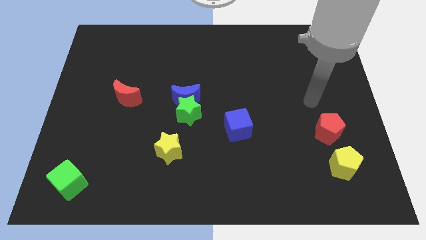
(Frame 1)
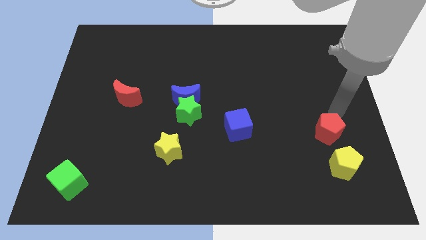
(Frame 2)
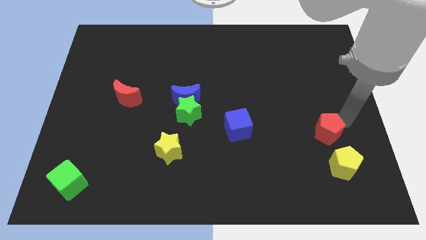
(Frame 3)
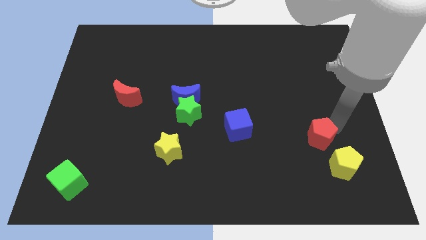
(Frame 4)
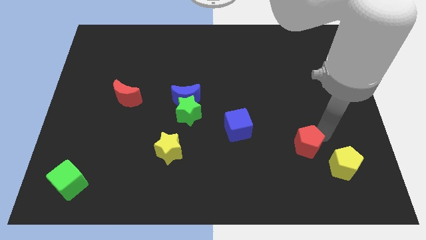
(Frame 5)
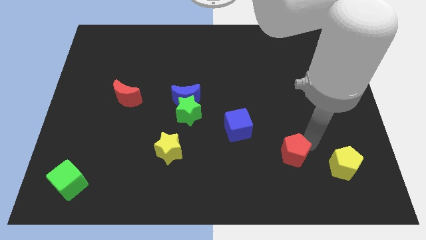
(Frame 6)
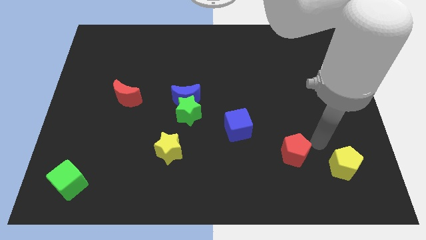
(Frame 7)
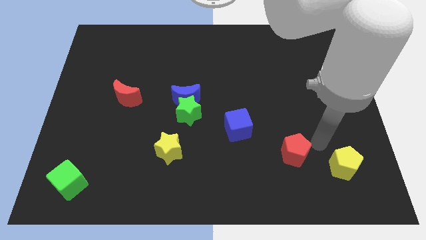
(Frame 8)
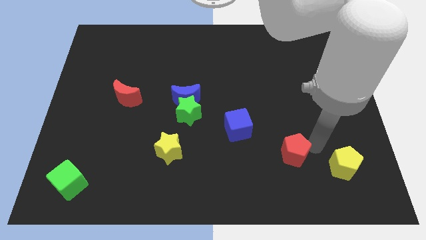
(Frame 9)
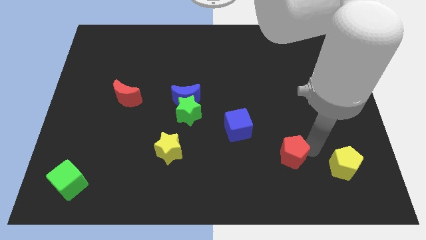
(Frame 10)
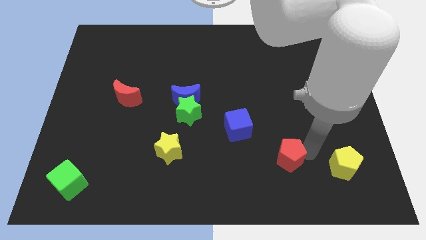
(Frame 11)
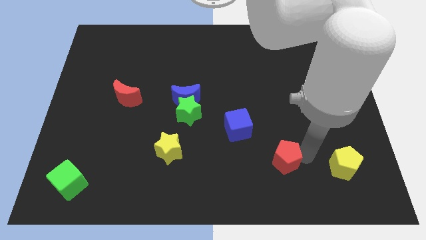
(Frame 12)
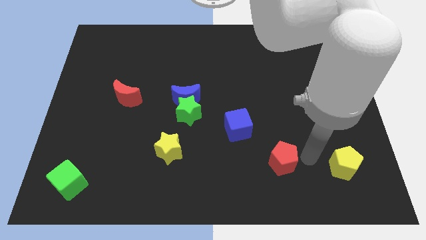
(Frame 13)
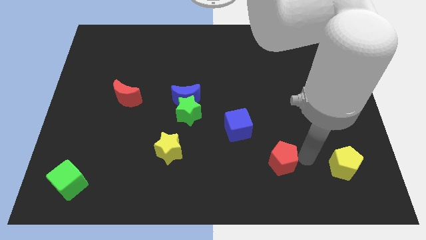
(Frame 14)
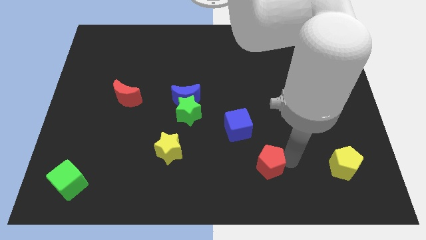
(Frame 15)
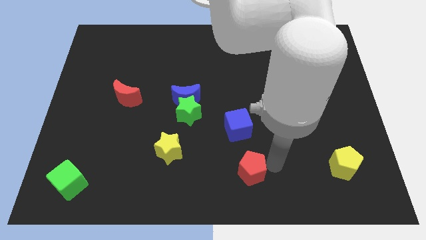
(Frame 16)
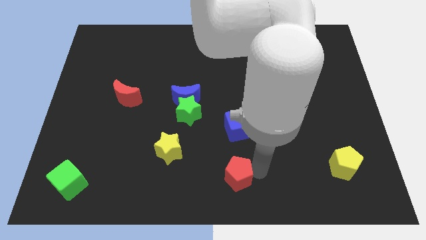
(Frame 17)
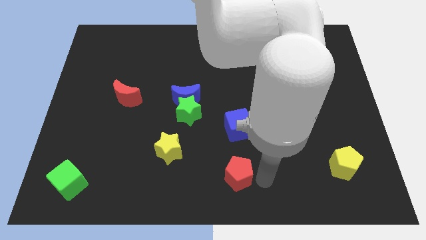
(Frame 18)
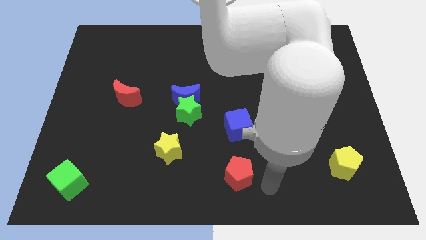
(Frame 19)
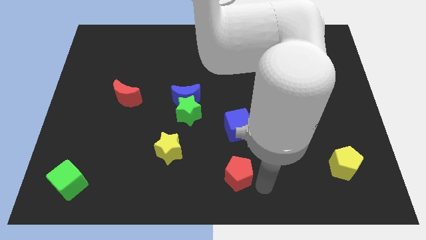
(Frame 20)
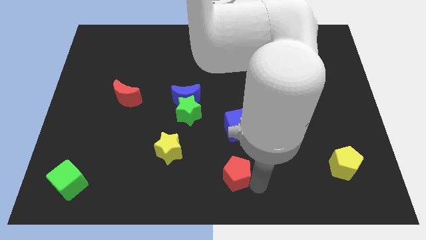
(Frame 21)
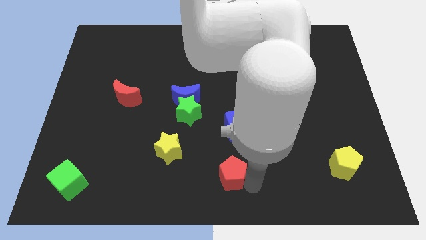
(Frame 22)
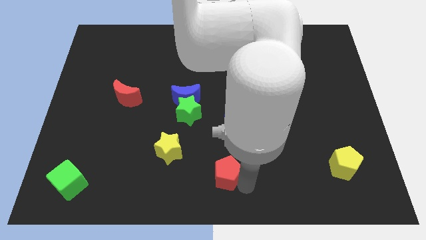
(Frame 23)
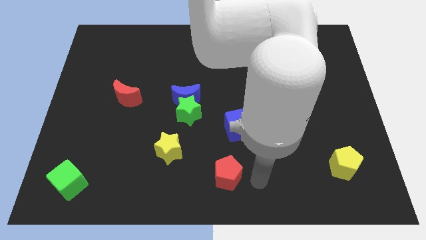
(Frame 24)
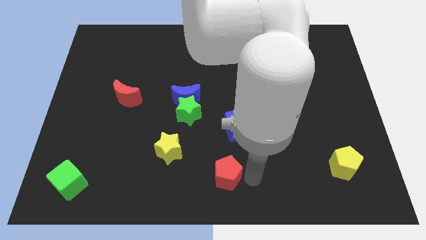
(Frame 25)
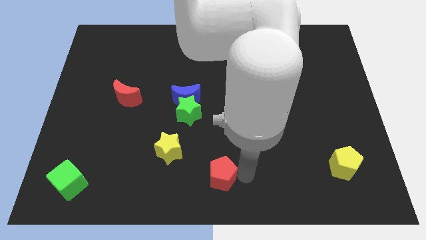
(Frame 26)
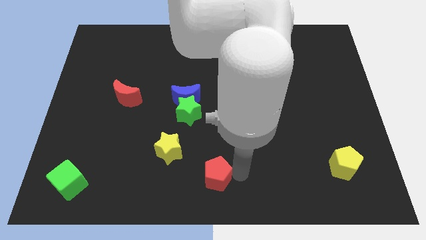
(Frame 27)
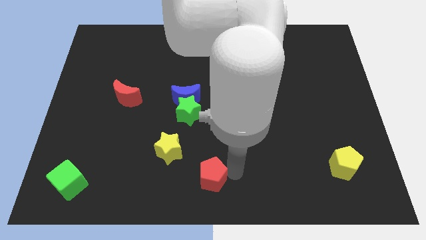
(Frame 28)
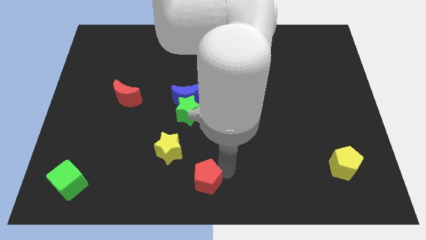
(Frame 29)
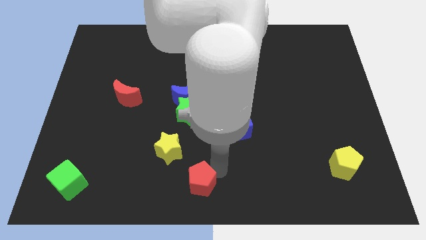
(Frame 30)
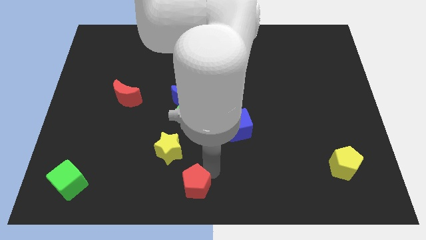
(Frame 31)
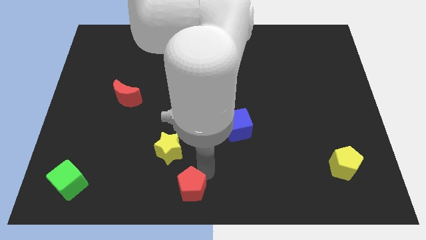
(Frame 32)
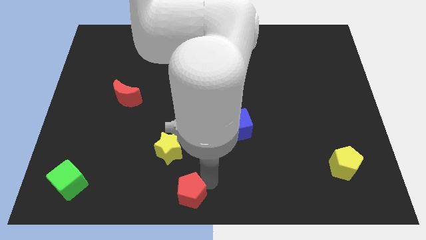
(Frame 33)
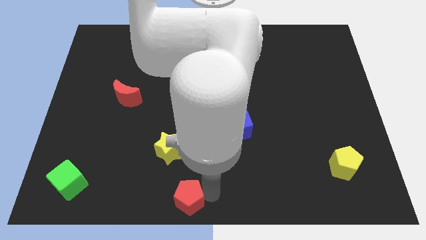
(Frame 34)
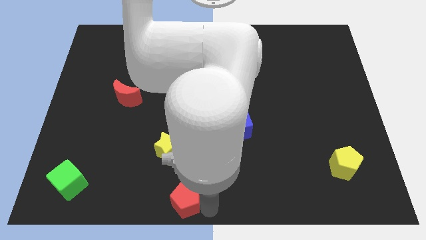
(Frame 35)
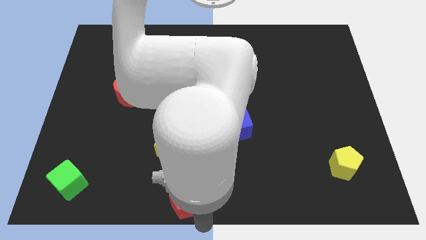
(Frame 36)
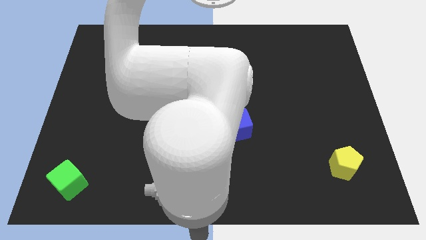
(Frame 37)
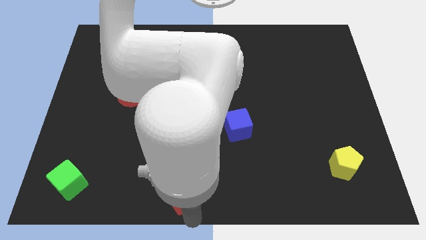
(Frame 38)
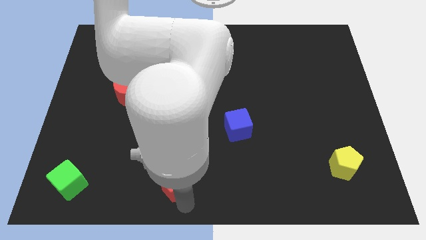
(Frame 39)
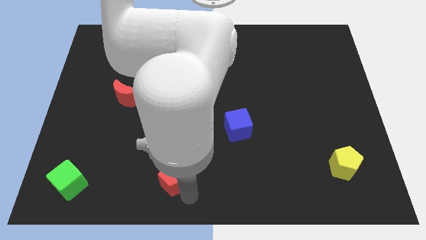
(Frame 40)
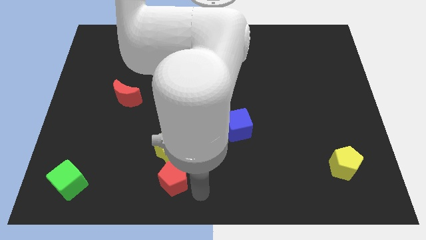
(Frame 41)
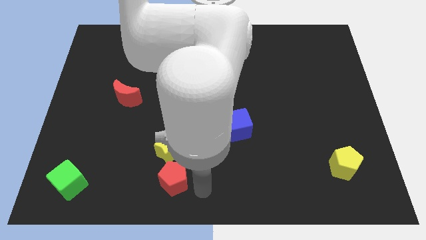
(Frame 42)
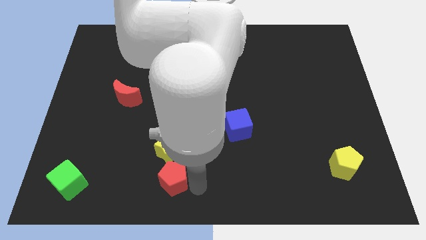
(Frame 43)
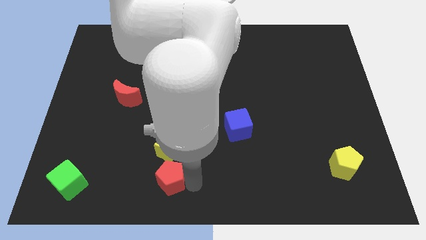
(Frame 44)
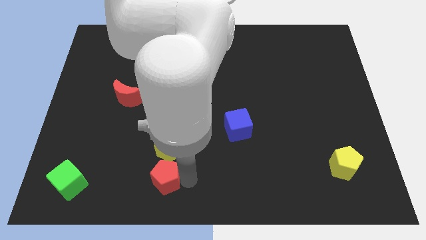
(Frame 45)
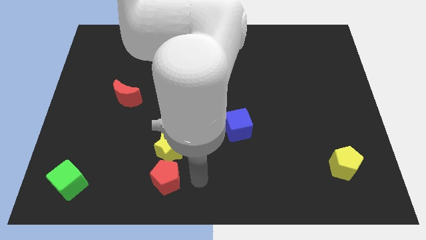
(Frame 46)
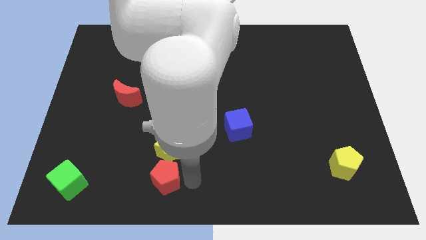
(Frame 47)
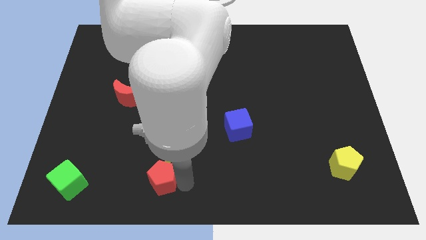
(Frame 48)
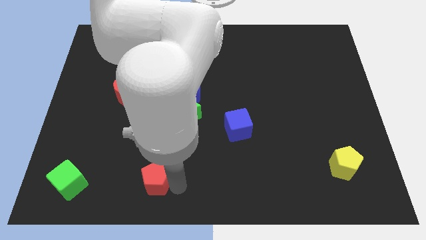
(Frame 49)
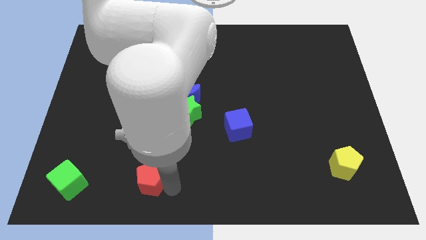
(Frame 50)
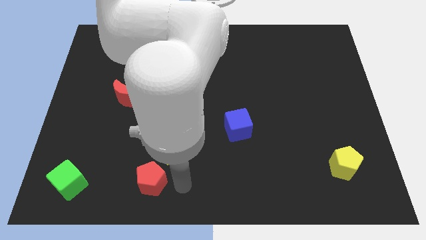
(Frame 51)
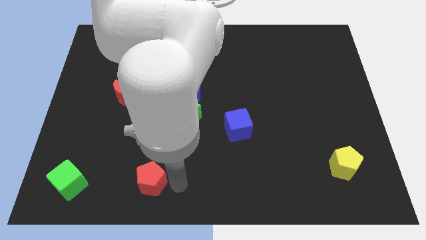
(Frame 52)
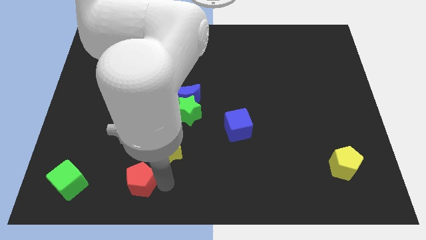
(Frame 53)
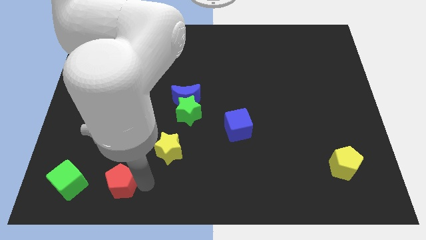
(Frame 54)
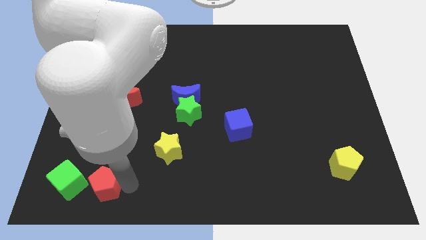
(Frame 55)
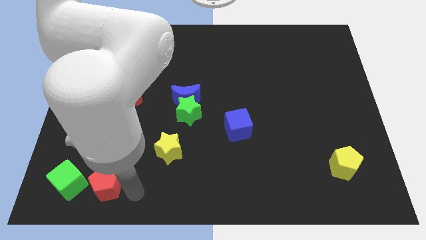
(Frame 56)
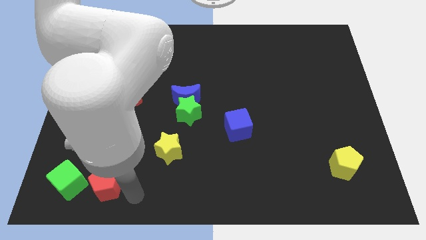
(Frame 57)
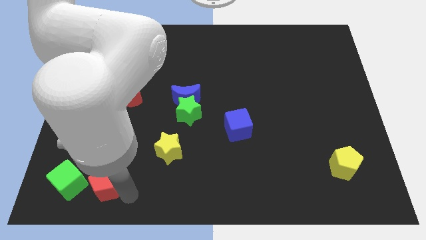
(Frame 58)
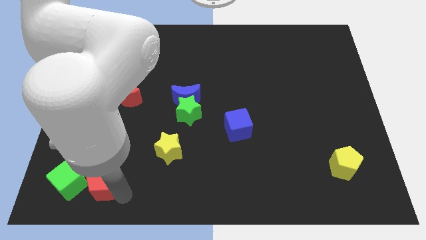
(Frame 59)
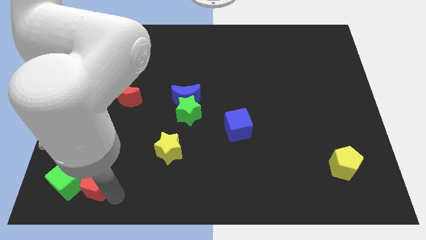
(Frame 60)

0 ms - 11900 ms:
push the red pentagon close to the green cube

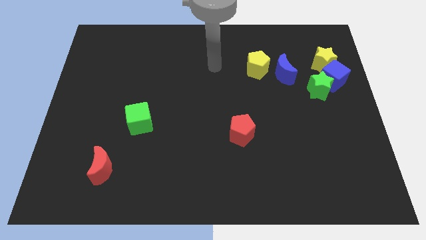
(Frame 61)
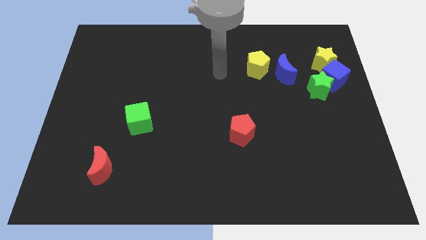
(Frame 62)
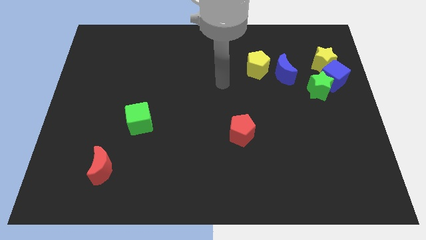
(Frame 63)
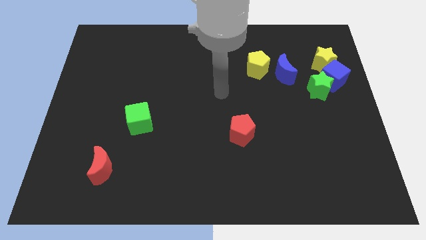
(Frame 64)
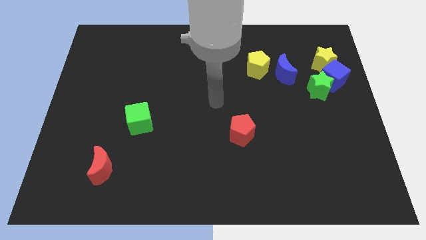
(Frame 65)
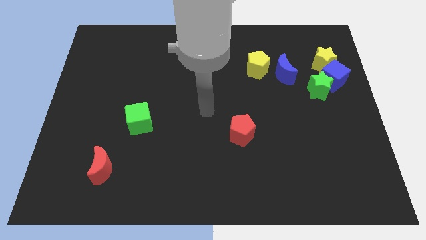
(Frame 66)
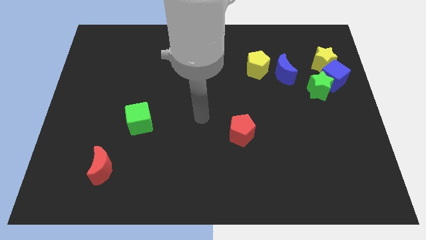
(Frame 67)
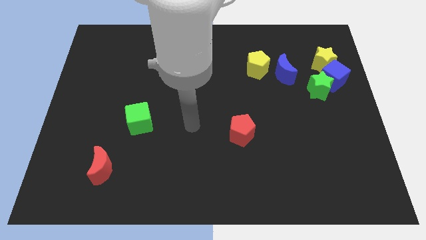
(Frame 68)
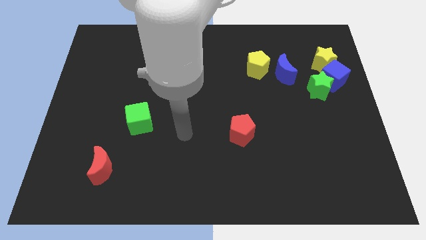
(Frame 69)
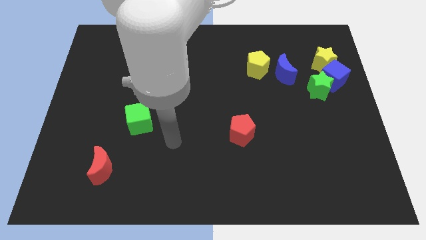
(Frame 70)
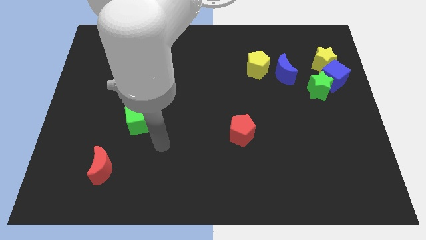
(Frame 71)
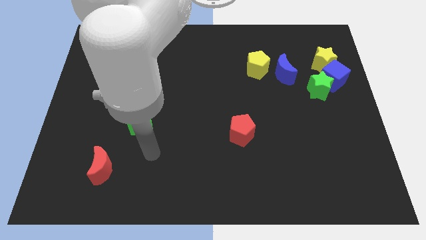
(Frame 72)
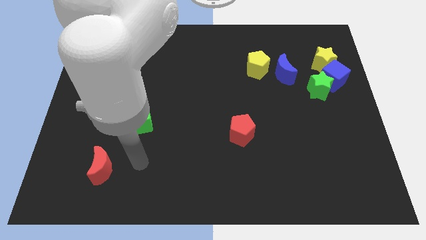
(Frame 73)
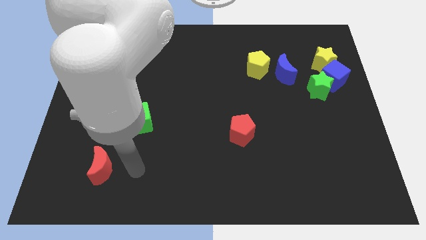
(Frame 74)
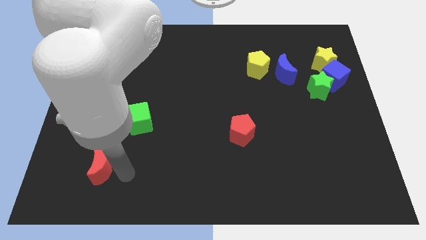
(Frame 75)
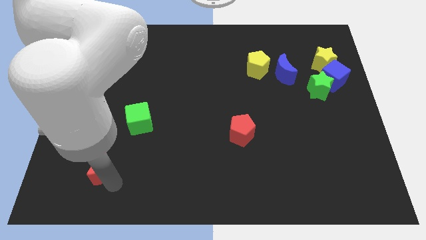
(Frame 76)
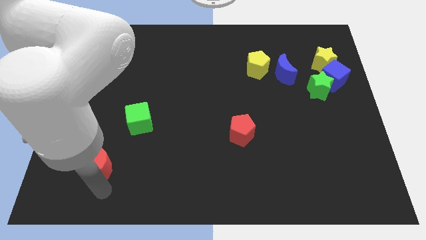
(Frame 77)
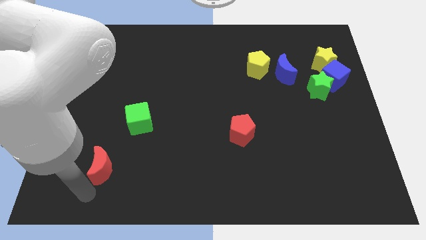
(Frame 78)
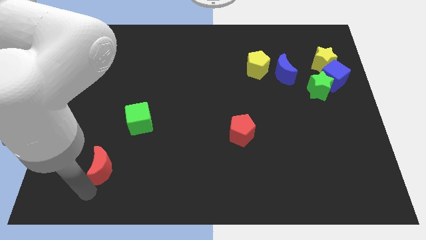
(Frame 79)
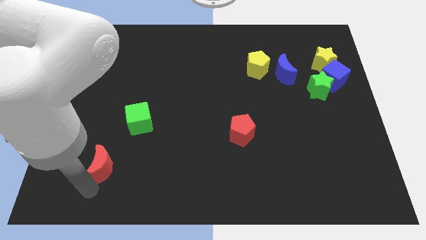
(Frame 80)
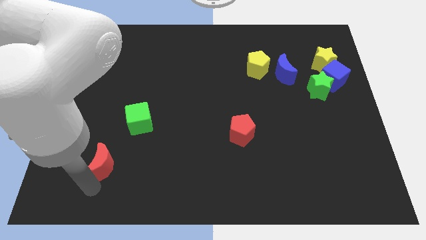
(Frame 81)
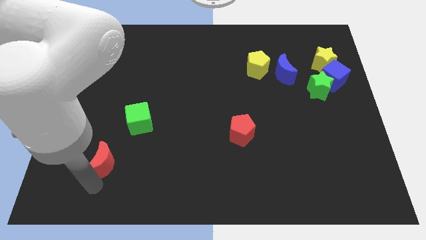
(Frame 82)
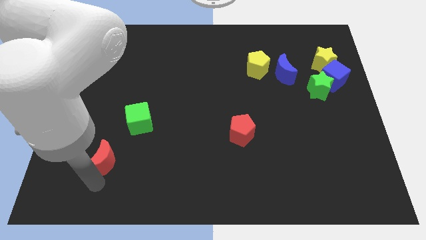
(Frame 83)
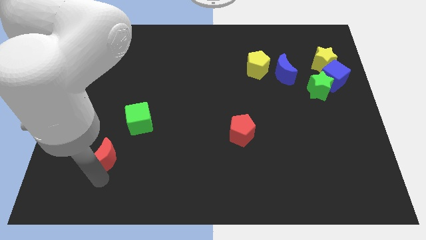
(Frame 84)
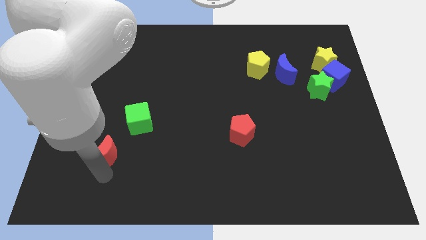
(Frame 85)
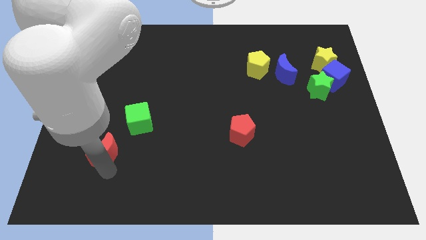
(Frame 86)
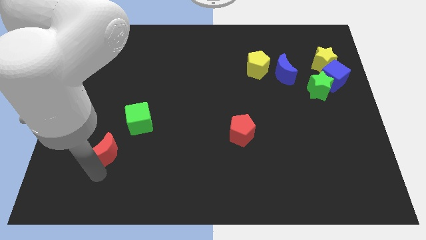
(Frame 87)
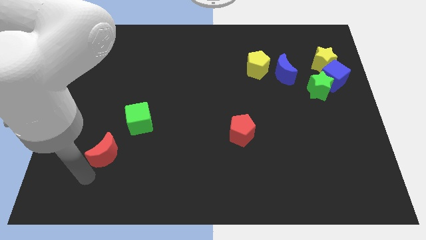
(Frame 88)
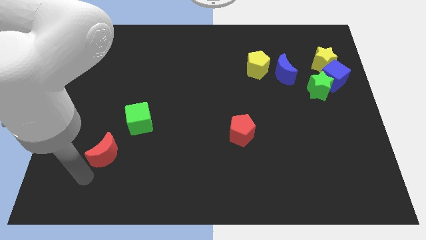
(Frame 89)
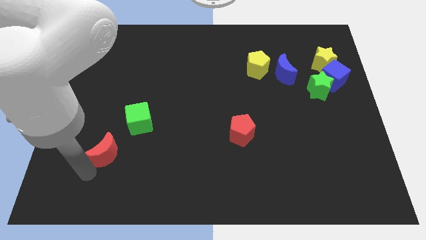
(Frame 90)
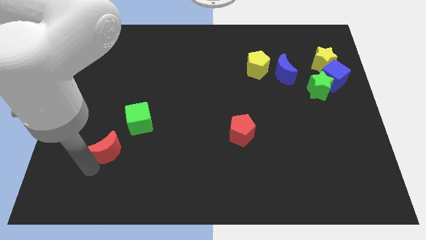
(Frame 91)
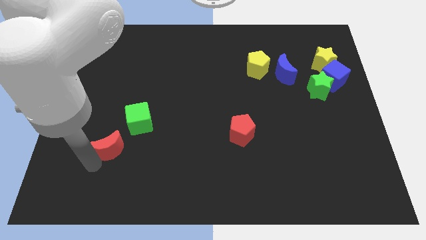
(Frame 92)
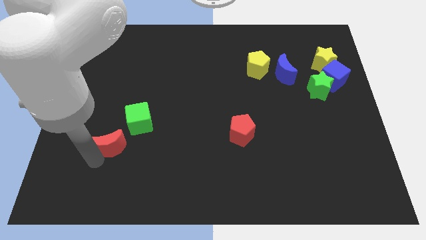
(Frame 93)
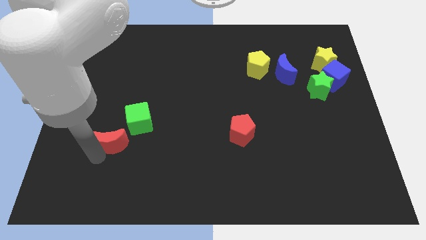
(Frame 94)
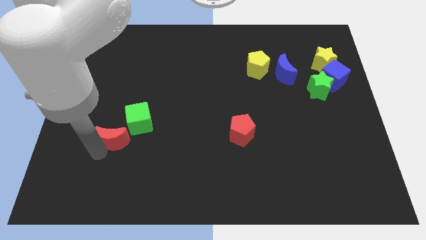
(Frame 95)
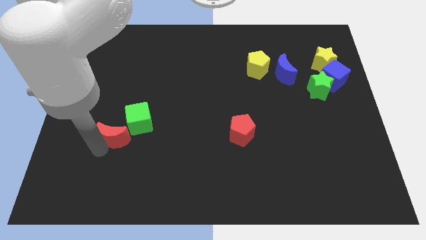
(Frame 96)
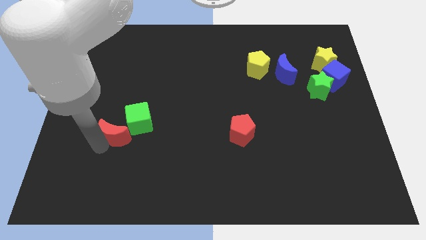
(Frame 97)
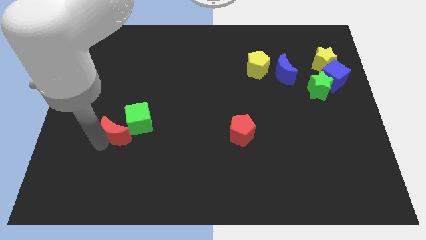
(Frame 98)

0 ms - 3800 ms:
push the red moon to the green cube
